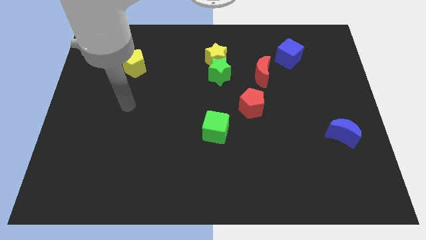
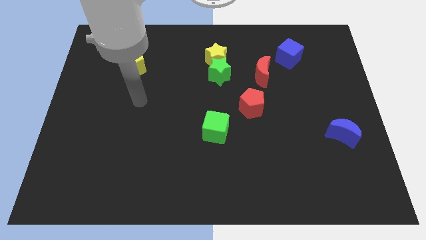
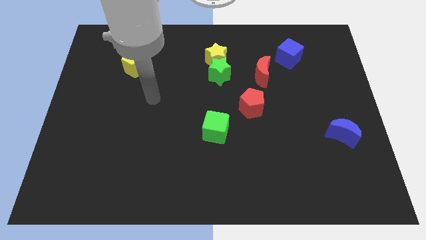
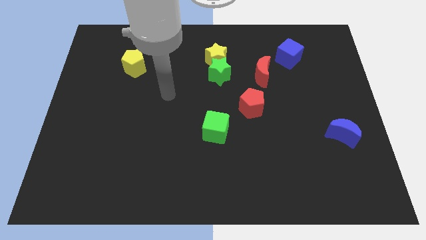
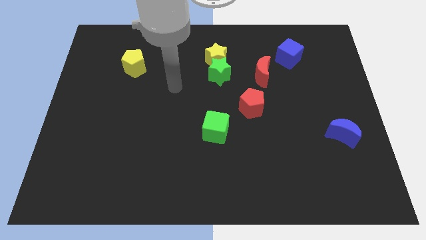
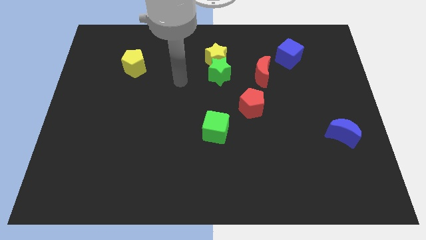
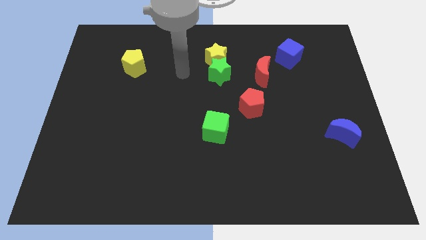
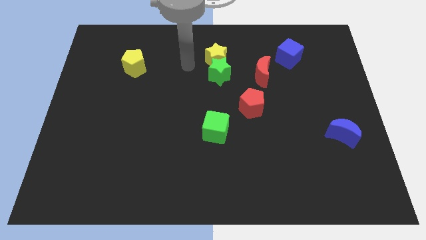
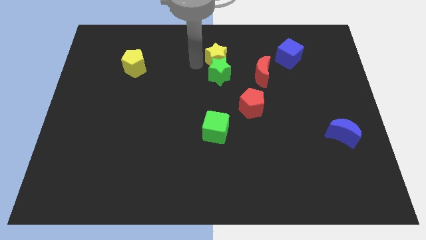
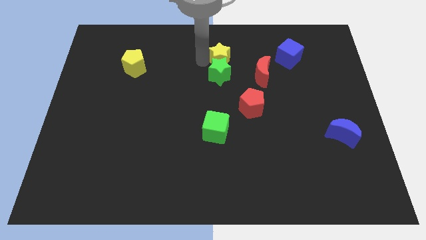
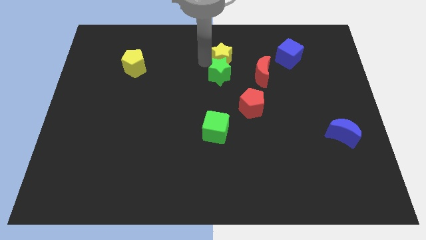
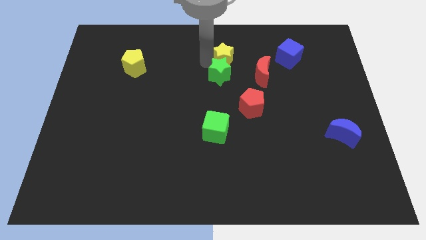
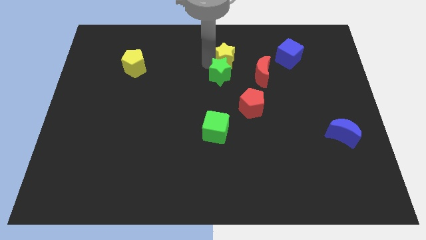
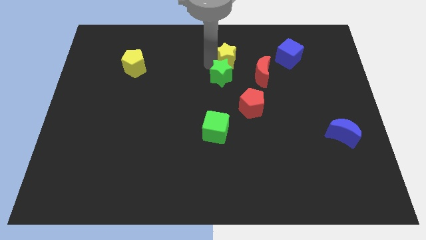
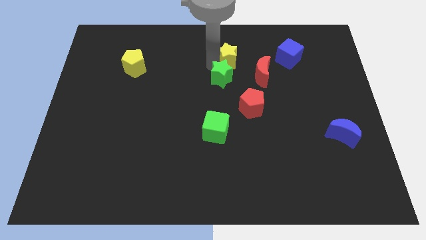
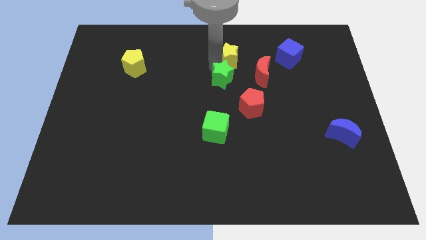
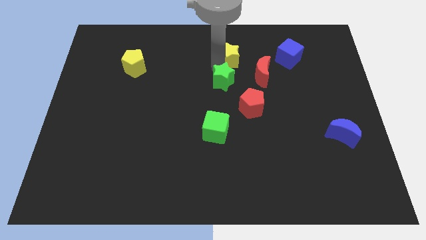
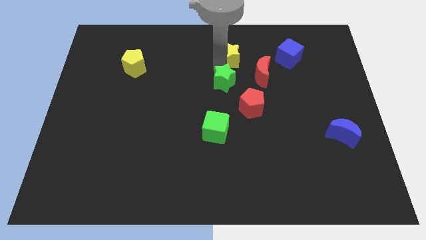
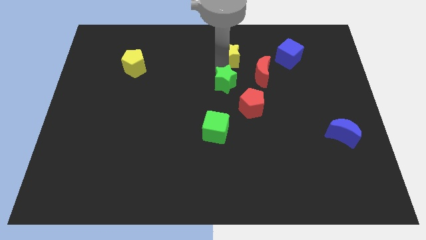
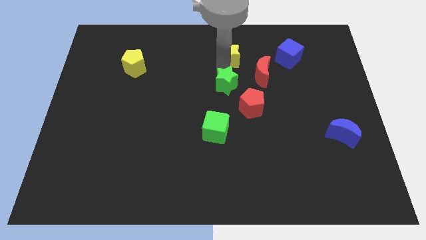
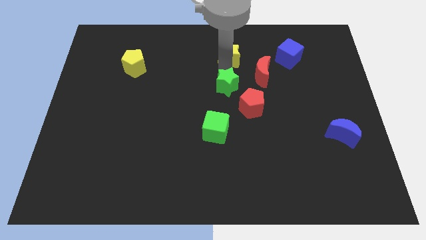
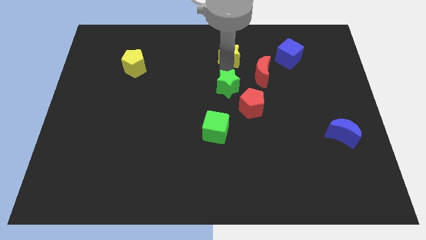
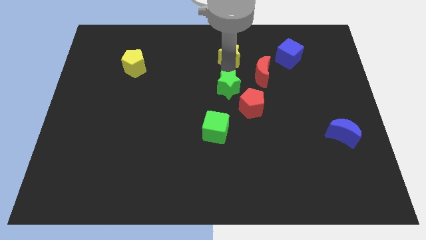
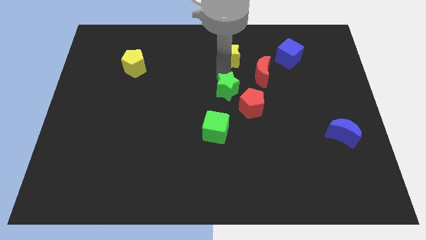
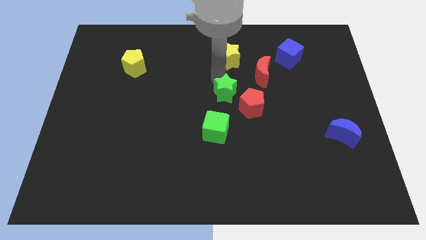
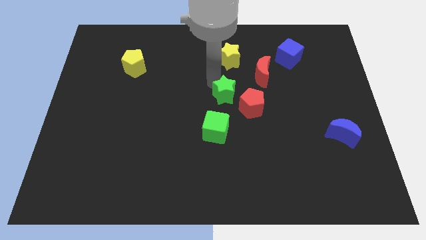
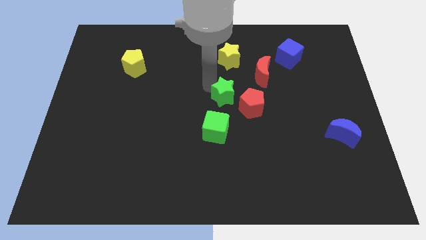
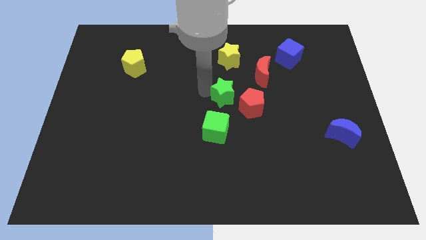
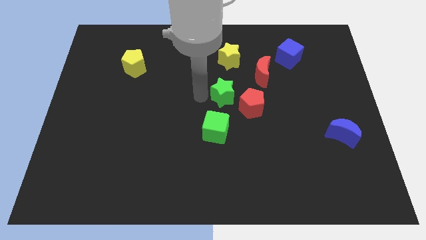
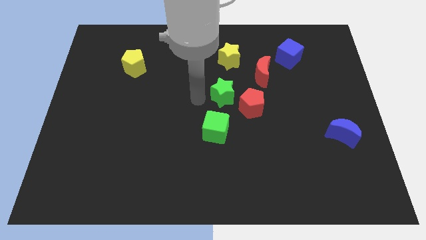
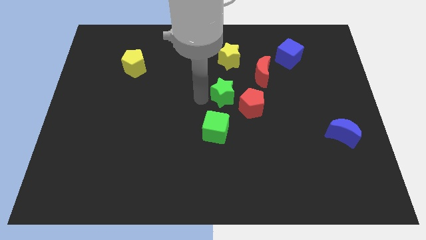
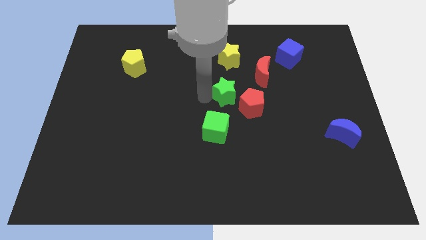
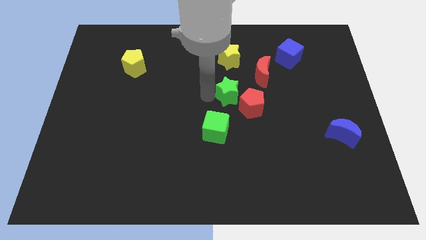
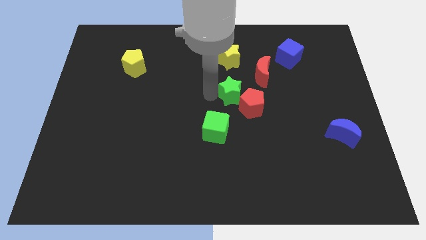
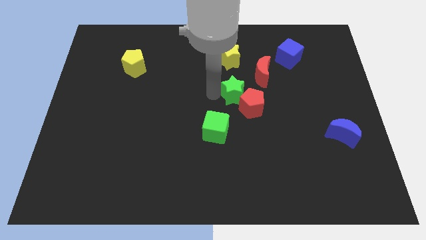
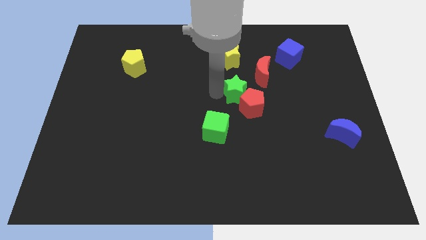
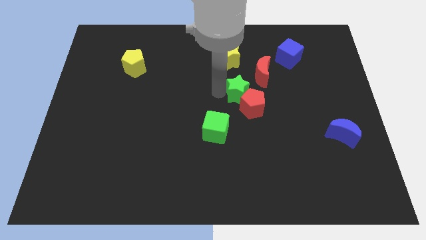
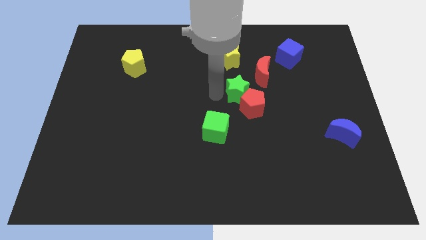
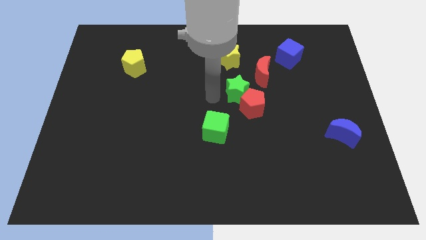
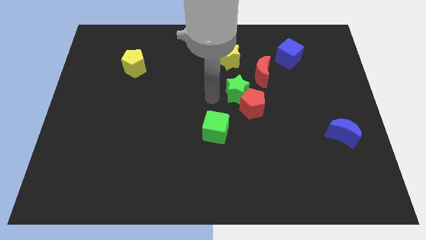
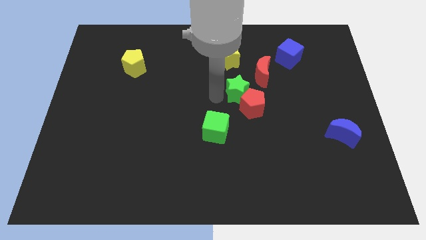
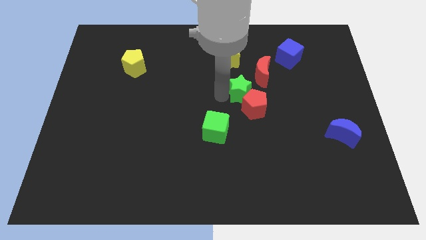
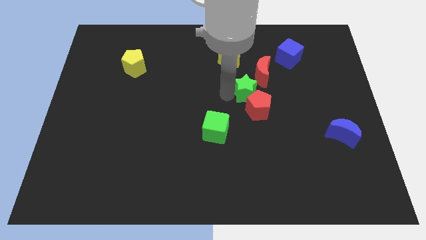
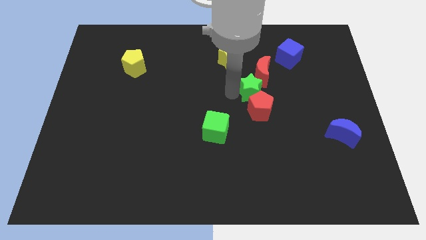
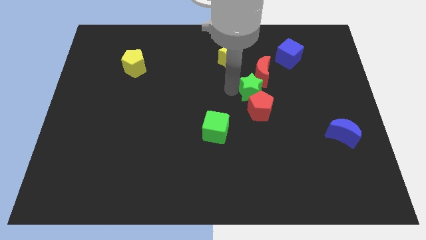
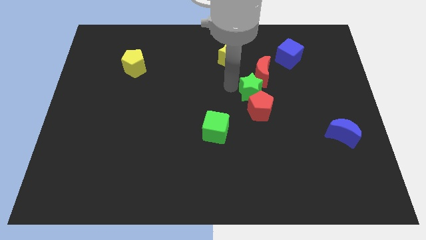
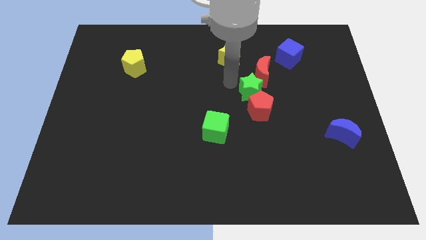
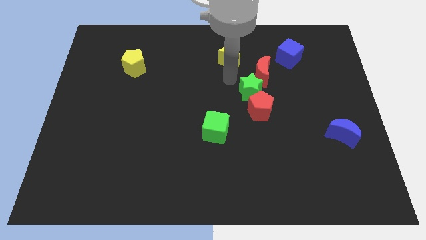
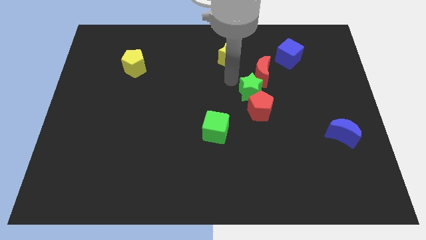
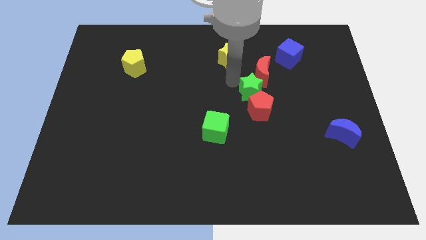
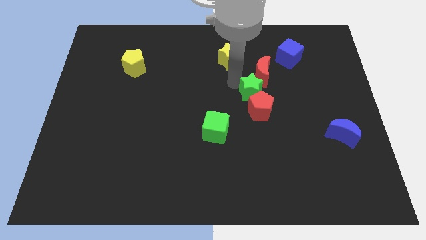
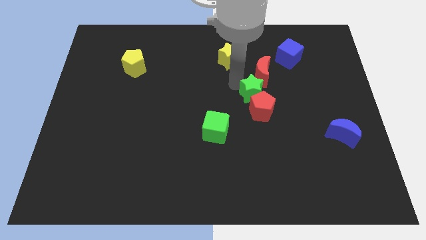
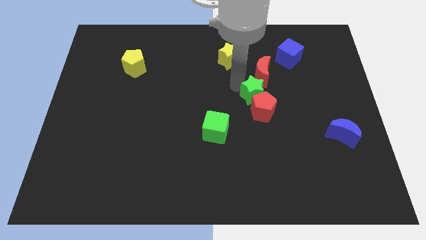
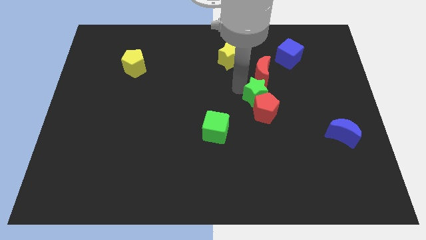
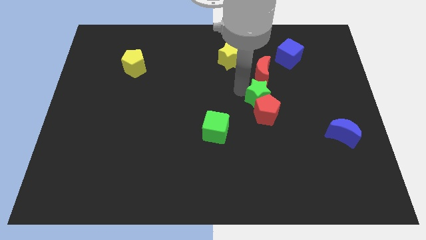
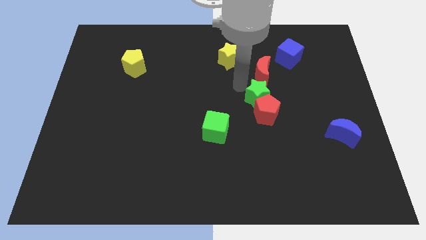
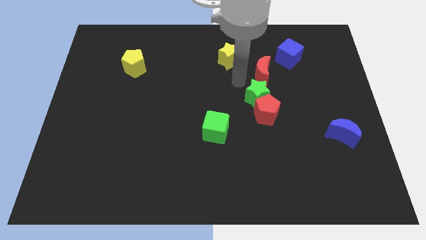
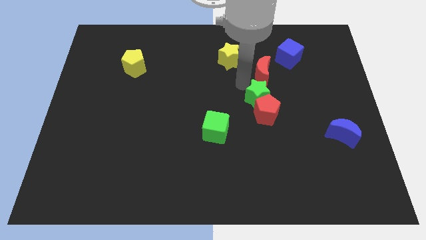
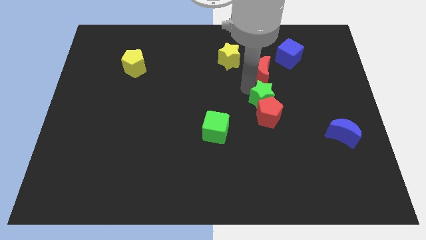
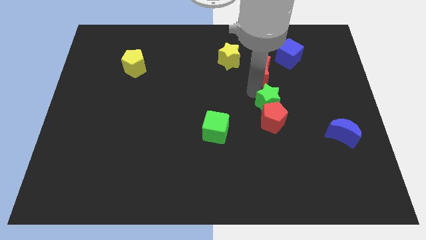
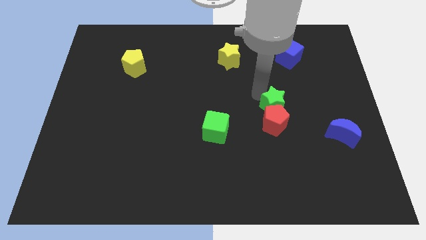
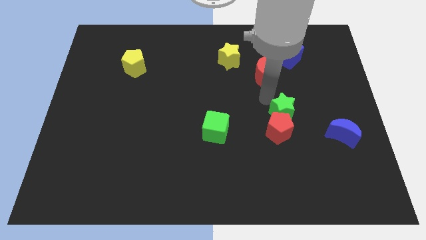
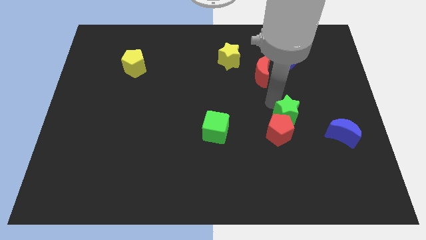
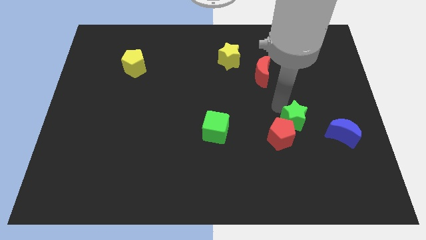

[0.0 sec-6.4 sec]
move the green star diagonally down and right

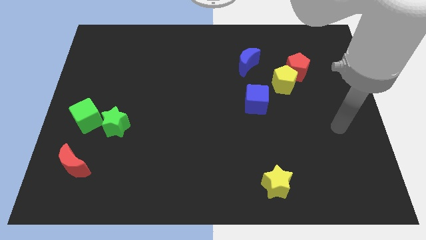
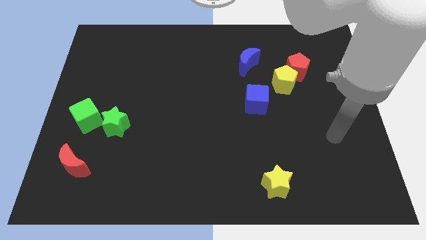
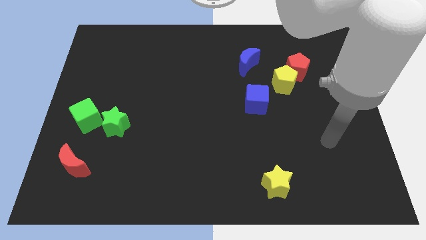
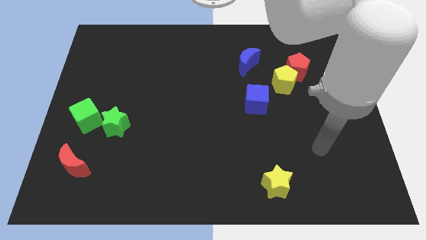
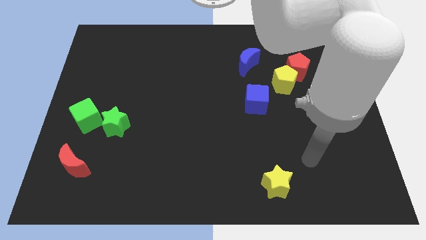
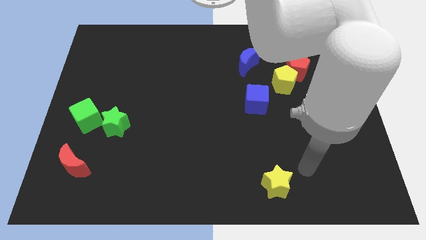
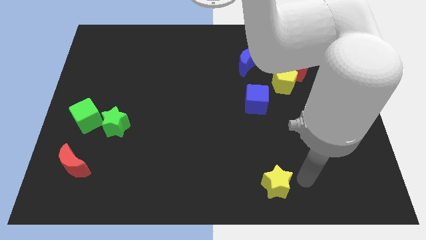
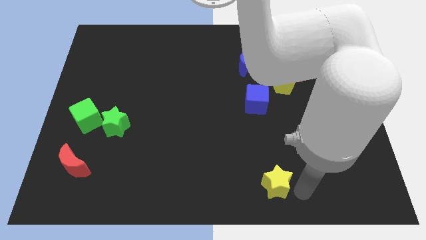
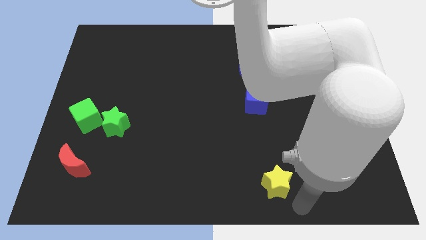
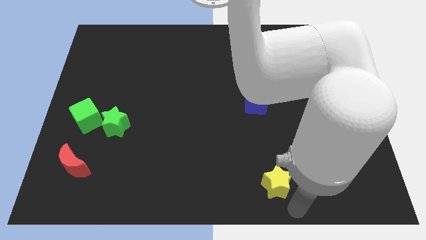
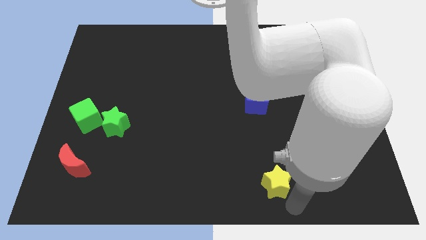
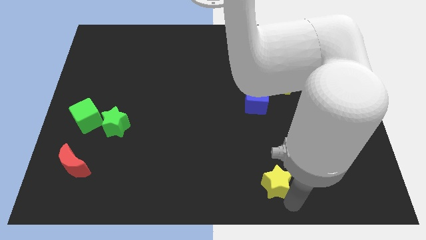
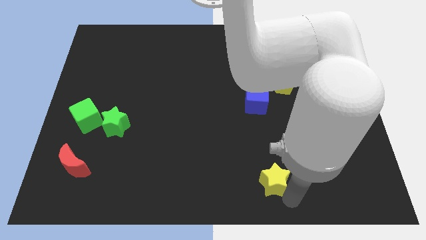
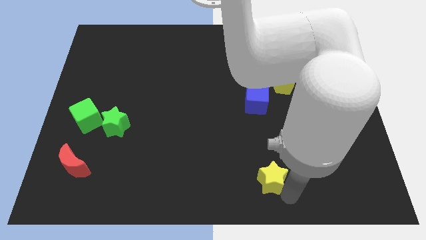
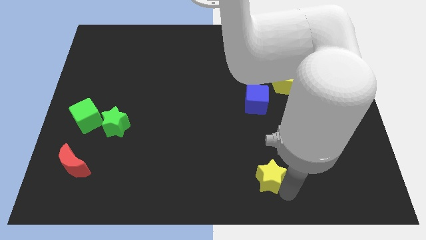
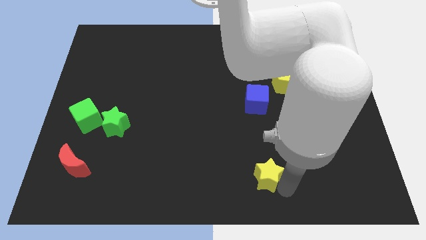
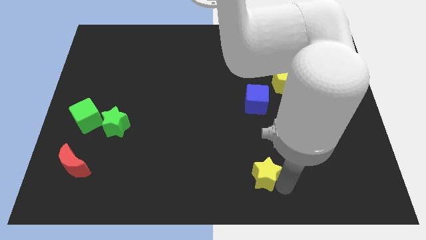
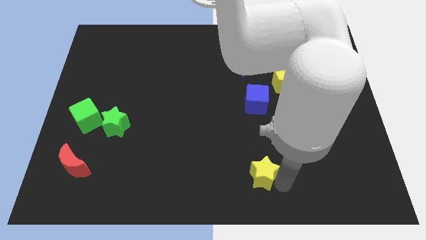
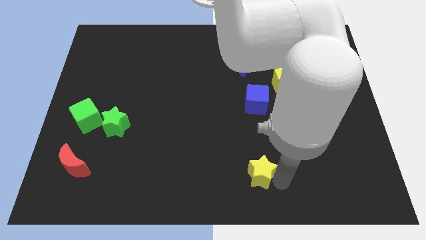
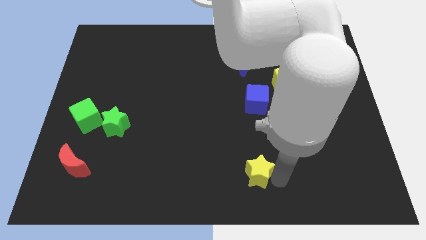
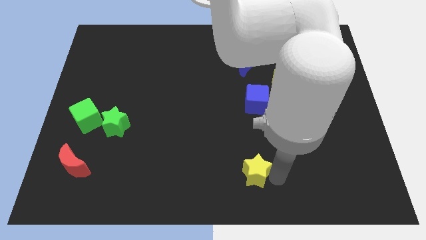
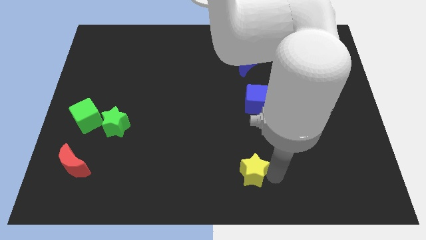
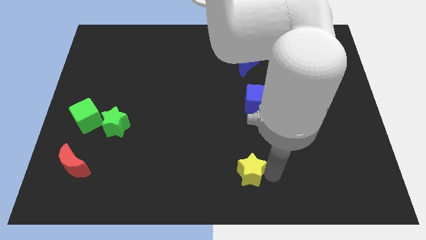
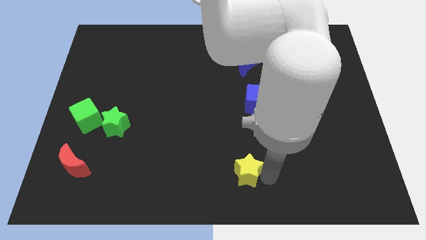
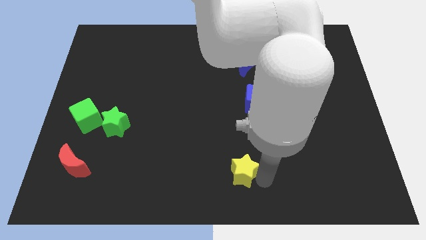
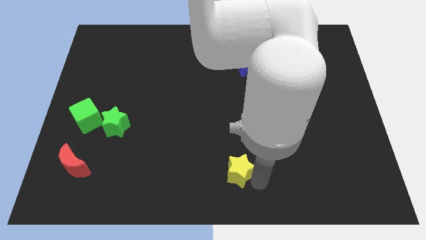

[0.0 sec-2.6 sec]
move the yellow star up and then left slightly
